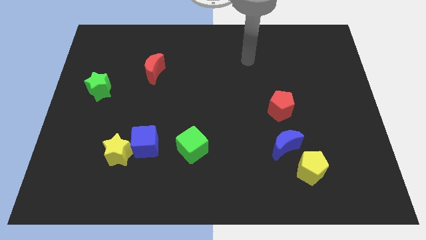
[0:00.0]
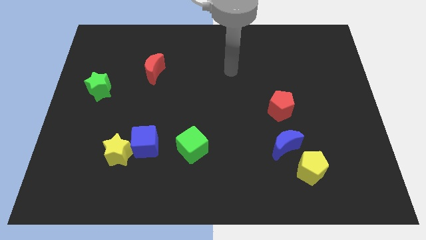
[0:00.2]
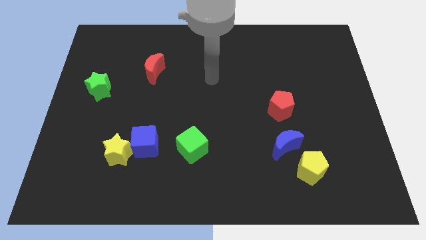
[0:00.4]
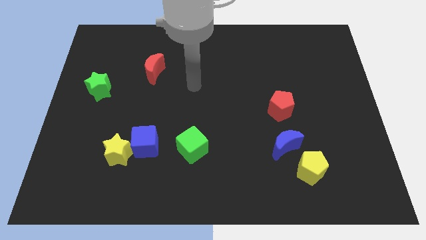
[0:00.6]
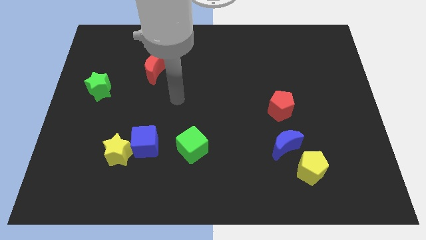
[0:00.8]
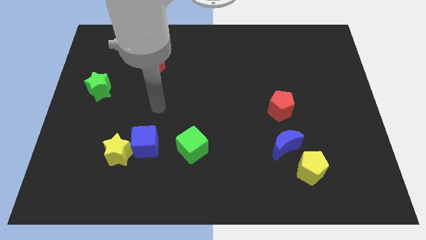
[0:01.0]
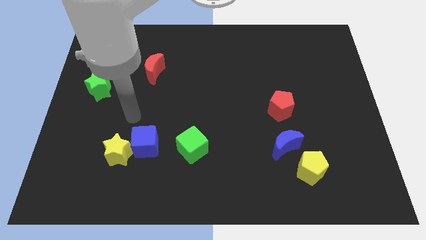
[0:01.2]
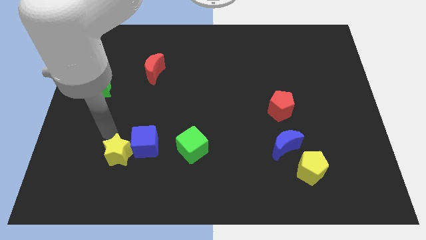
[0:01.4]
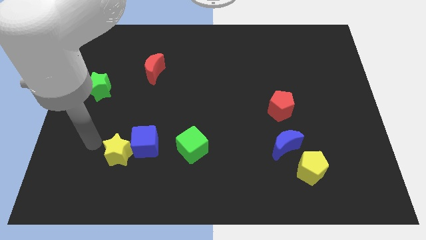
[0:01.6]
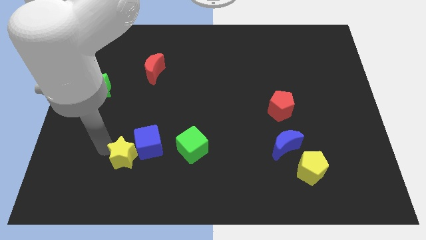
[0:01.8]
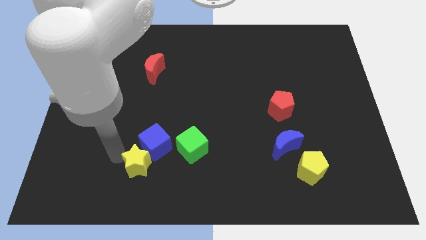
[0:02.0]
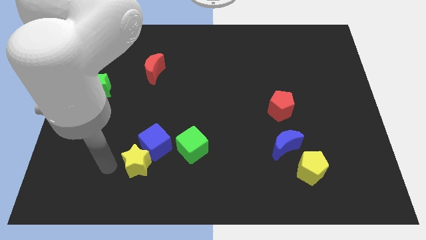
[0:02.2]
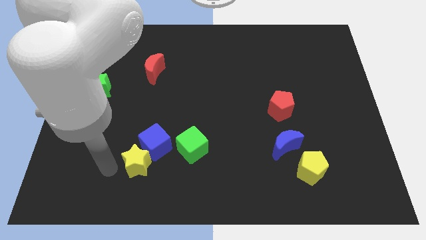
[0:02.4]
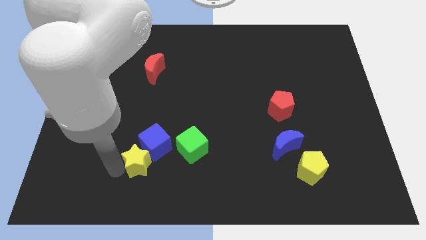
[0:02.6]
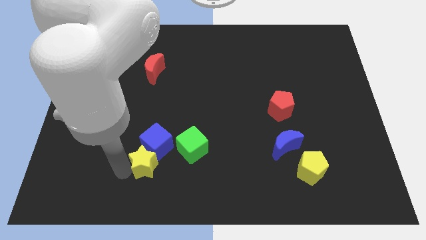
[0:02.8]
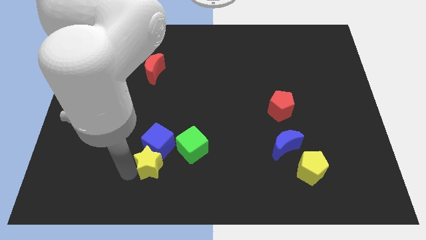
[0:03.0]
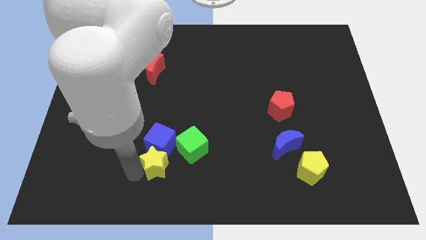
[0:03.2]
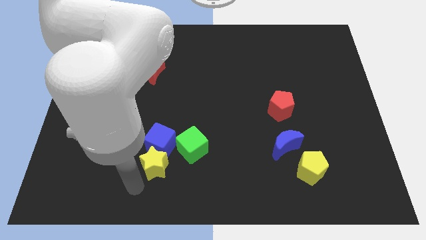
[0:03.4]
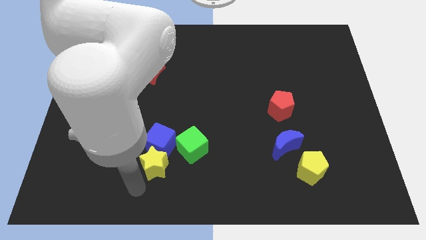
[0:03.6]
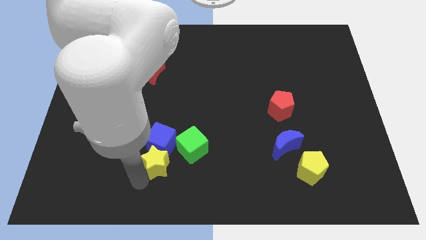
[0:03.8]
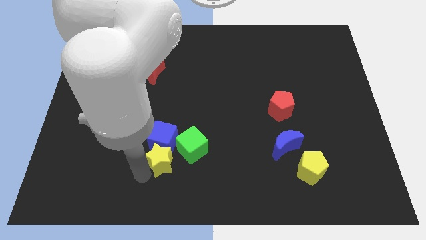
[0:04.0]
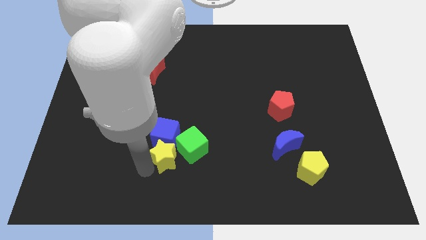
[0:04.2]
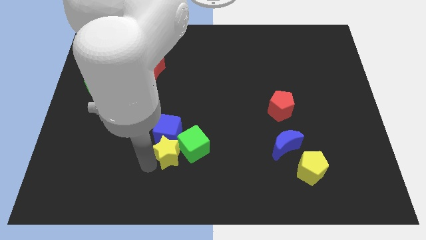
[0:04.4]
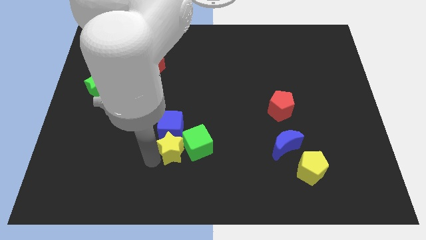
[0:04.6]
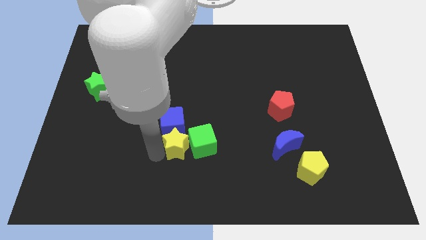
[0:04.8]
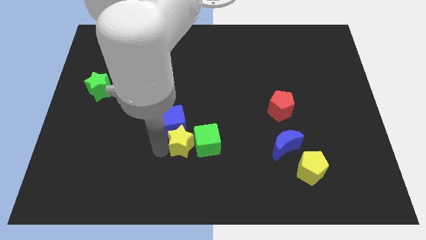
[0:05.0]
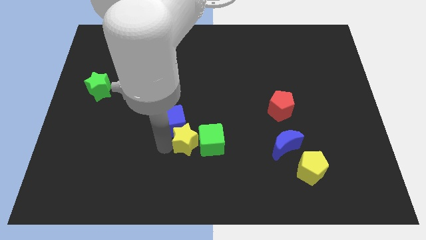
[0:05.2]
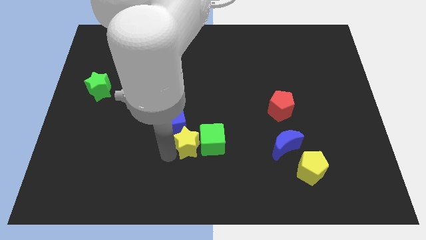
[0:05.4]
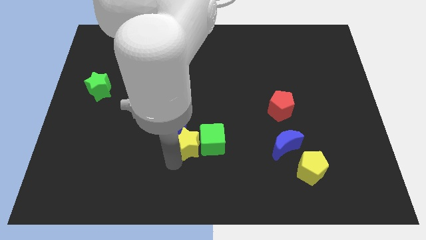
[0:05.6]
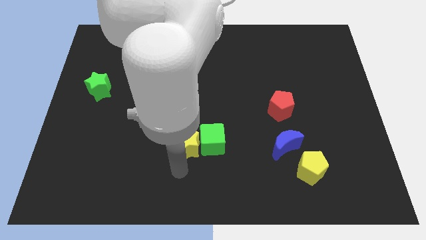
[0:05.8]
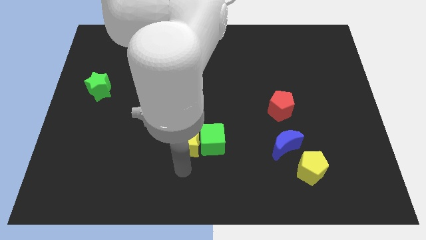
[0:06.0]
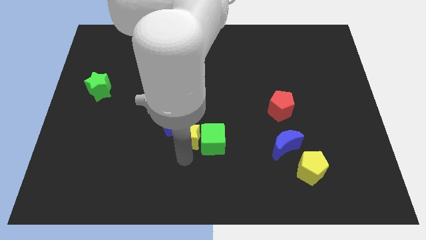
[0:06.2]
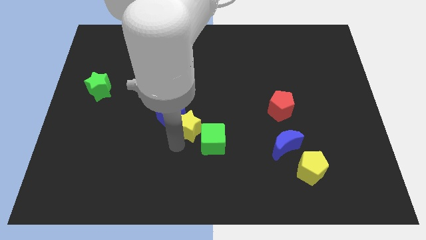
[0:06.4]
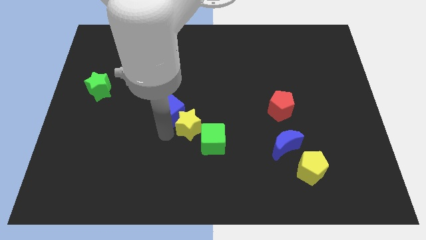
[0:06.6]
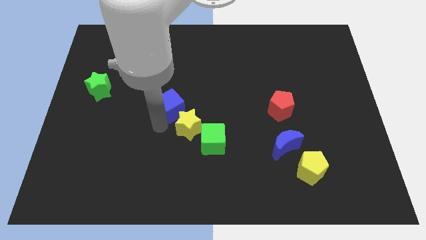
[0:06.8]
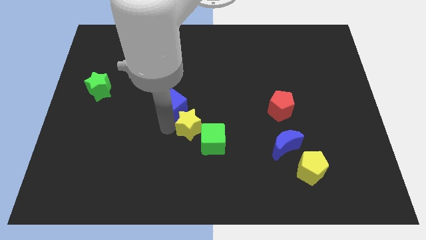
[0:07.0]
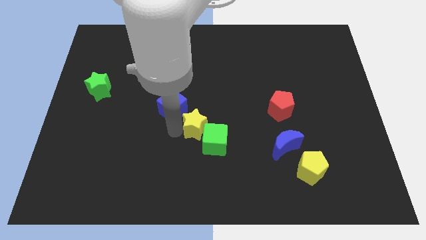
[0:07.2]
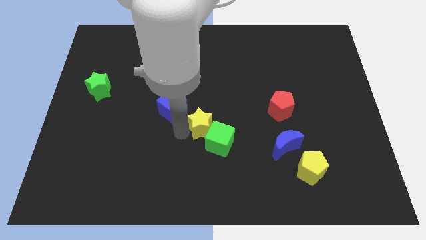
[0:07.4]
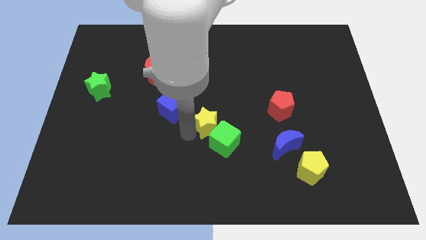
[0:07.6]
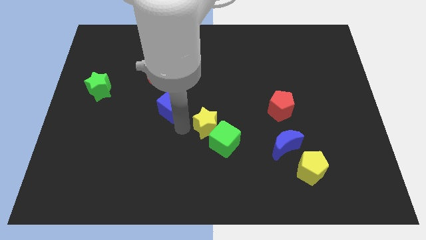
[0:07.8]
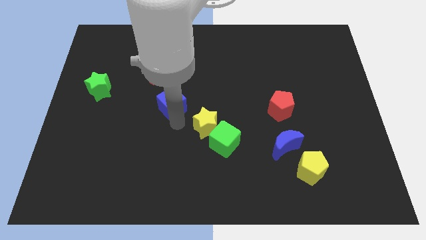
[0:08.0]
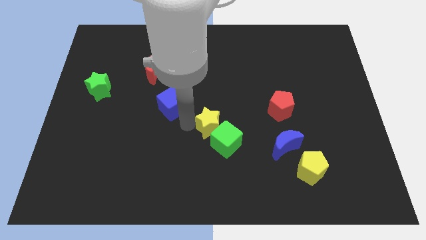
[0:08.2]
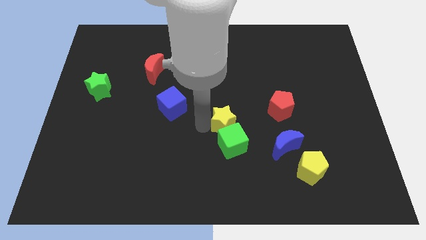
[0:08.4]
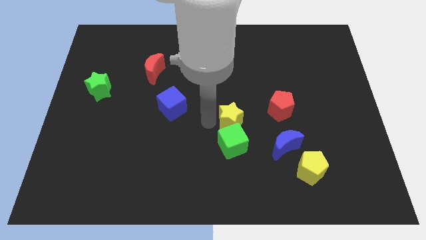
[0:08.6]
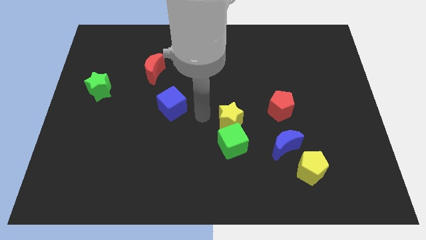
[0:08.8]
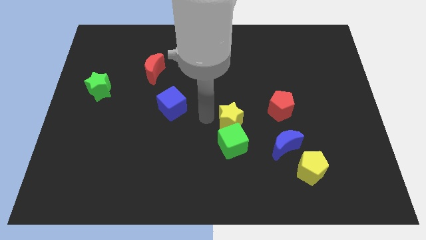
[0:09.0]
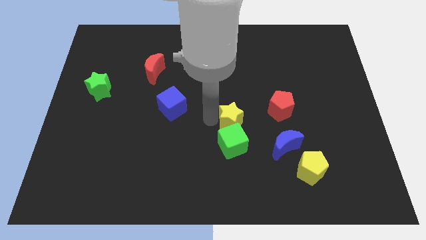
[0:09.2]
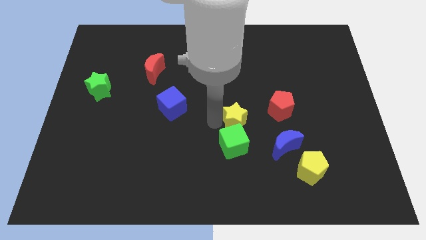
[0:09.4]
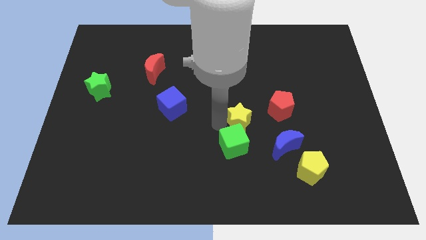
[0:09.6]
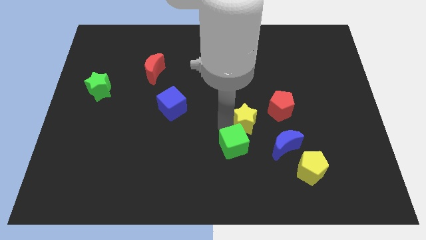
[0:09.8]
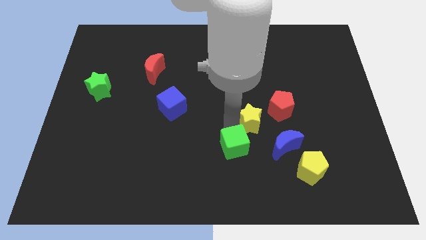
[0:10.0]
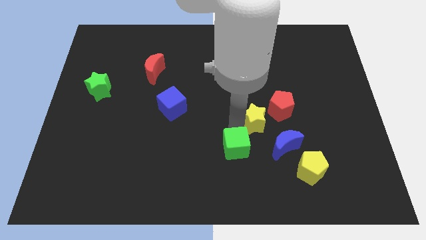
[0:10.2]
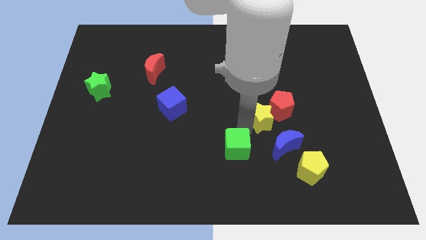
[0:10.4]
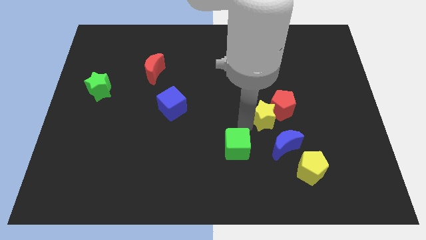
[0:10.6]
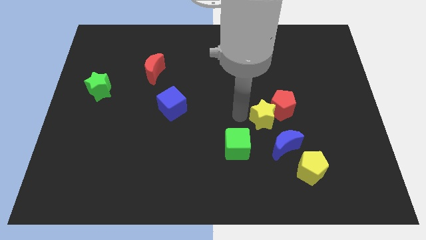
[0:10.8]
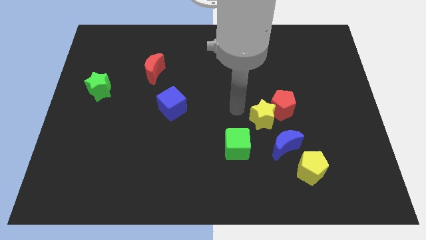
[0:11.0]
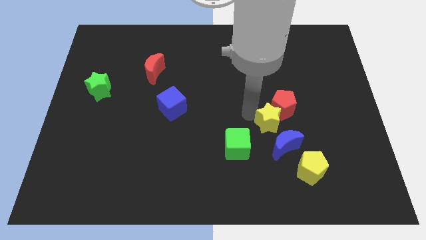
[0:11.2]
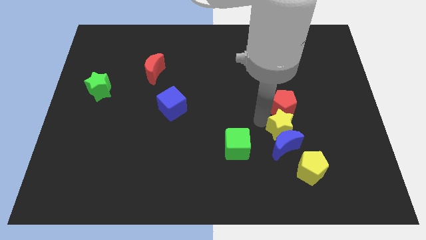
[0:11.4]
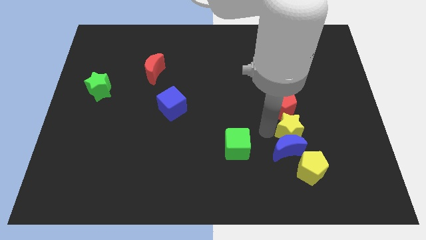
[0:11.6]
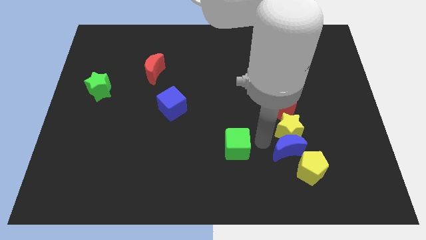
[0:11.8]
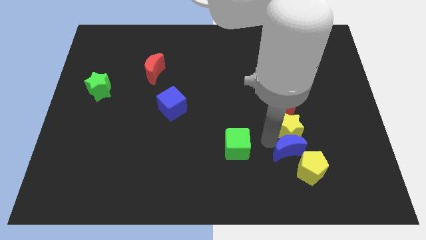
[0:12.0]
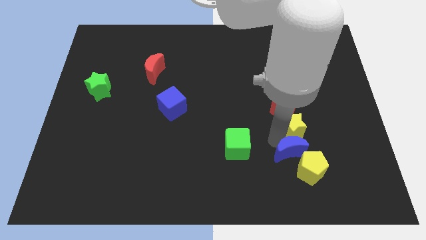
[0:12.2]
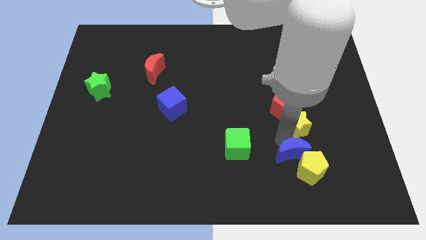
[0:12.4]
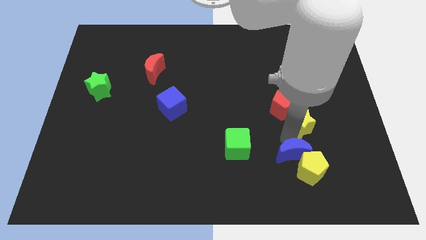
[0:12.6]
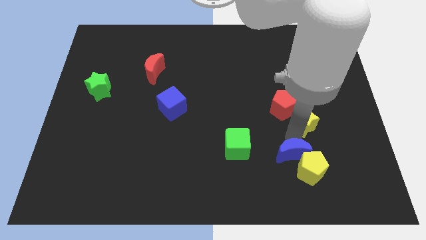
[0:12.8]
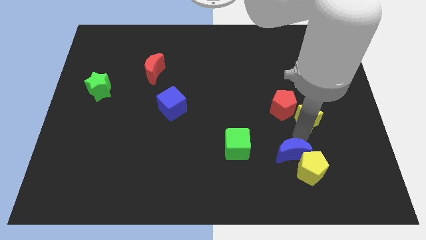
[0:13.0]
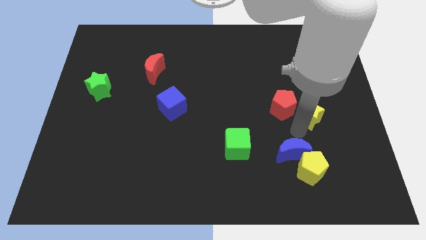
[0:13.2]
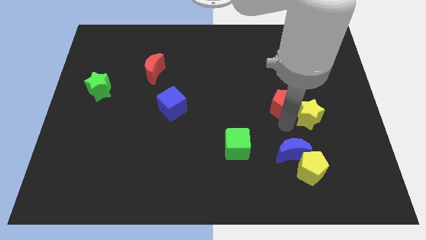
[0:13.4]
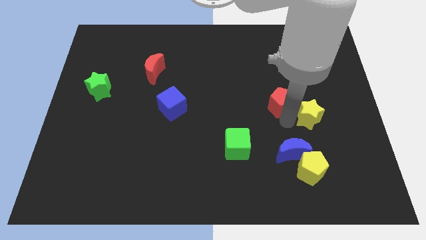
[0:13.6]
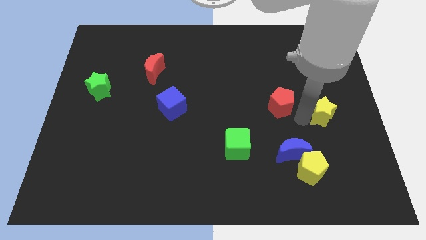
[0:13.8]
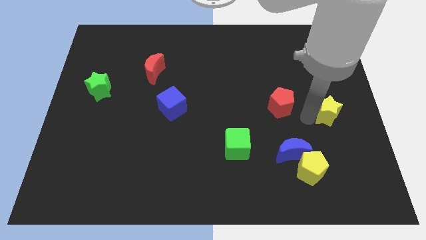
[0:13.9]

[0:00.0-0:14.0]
slide the yellow star to the right side
